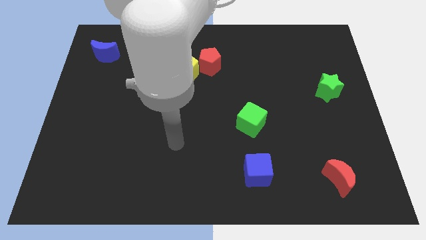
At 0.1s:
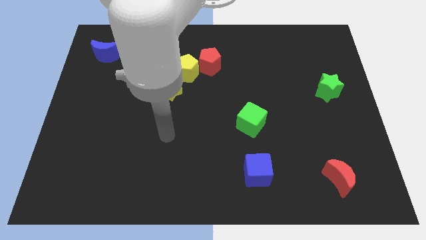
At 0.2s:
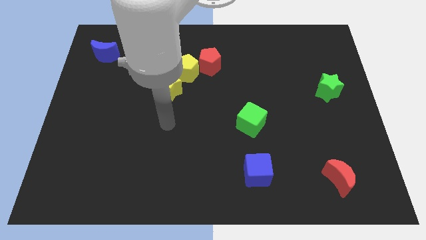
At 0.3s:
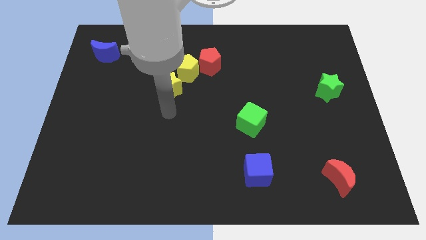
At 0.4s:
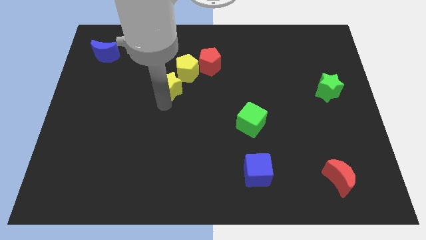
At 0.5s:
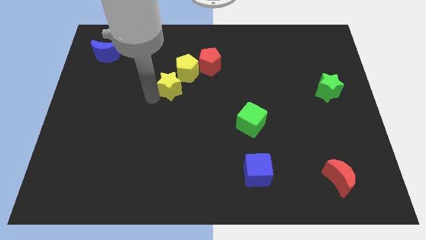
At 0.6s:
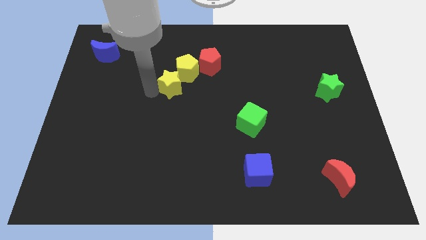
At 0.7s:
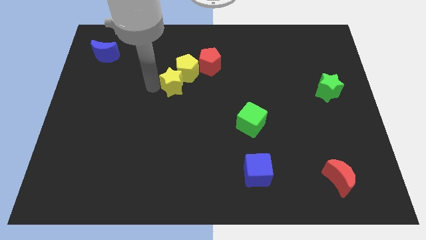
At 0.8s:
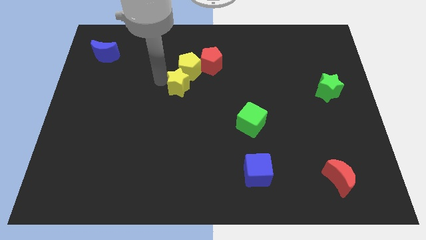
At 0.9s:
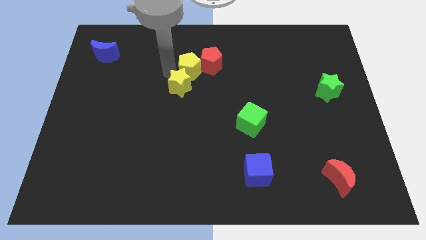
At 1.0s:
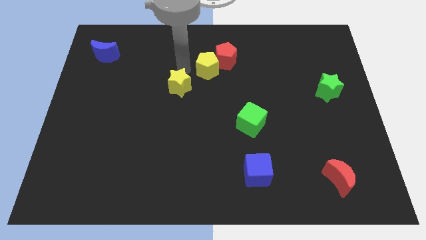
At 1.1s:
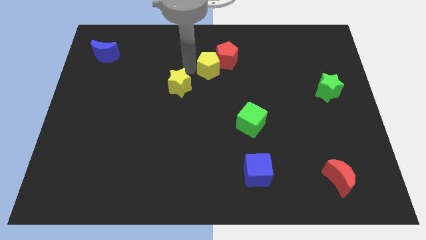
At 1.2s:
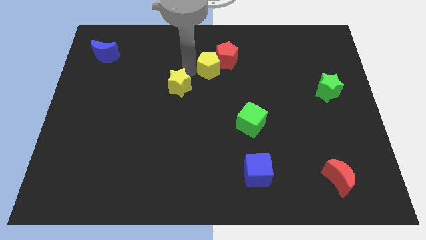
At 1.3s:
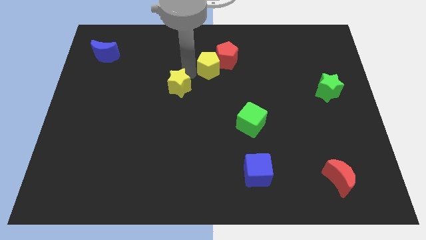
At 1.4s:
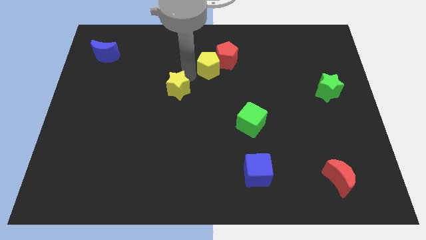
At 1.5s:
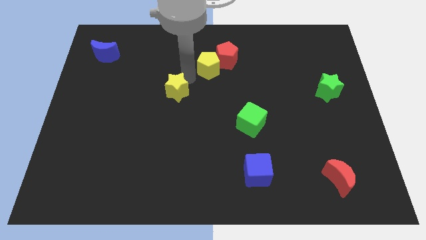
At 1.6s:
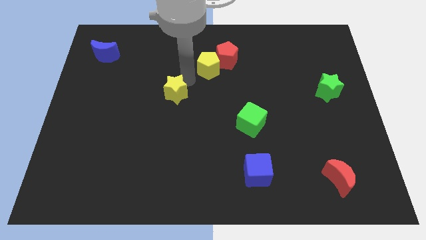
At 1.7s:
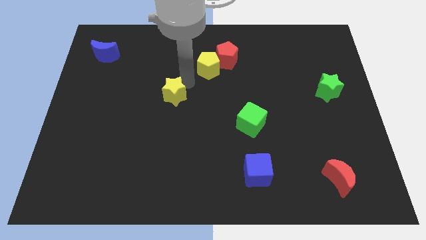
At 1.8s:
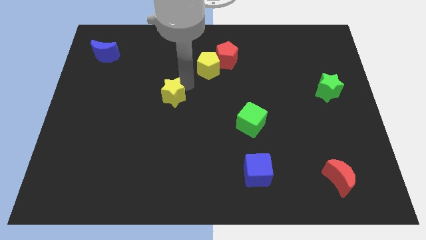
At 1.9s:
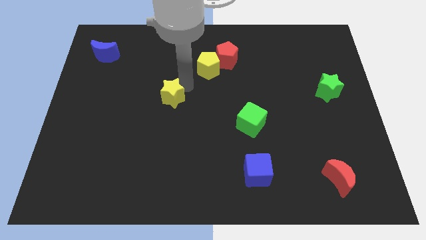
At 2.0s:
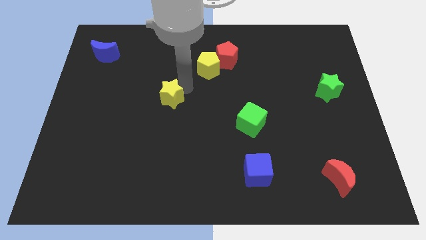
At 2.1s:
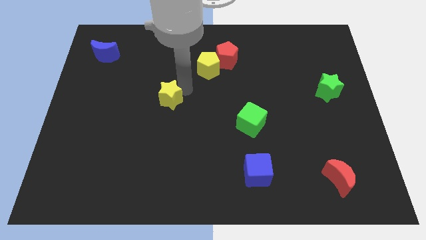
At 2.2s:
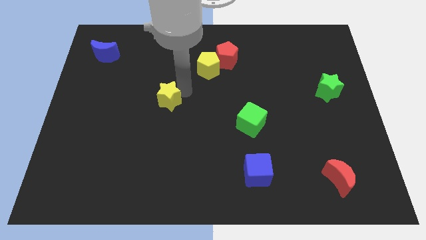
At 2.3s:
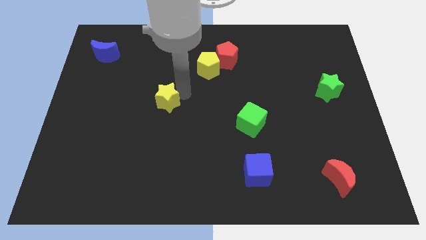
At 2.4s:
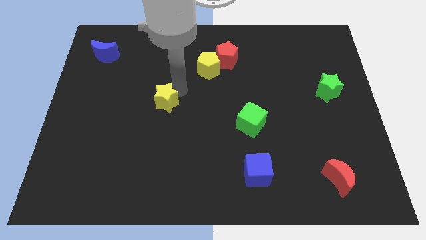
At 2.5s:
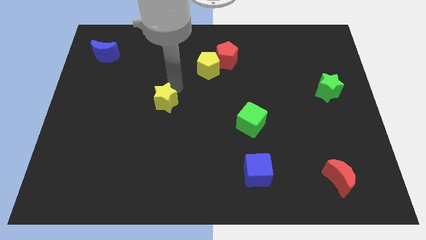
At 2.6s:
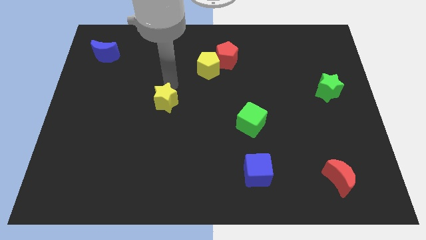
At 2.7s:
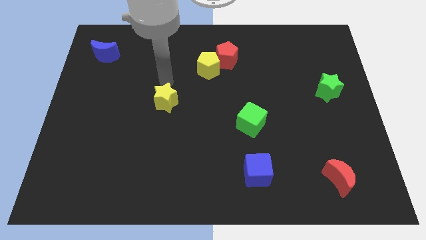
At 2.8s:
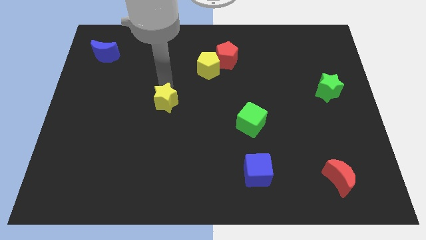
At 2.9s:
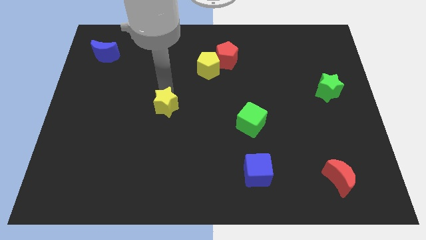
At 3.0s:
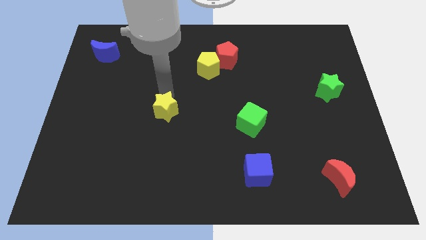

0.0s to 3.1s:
slightly slide the yellow star down

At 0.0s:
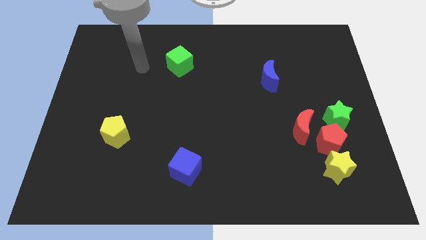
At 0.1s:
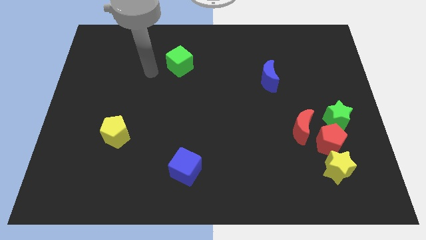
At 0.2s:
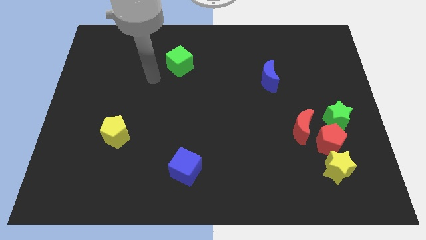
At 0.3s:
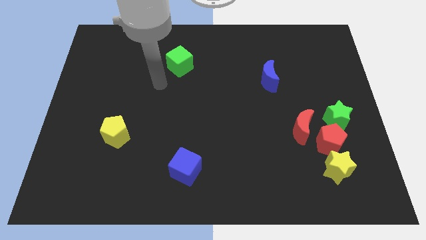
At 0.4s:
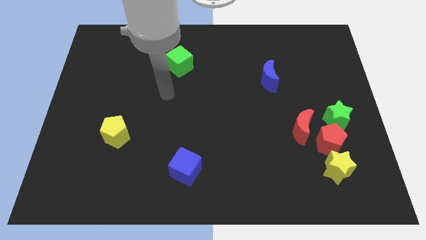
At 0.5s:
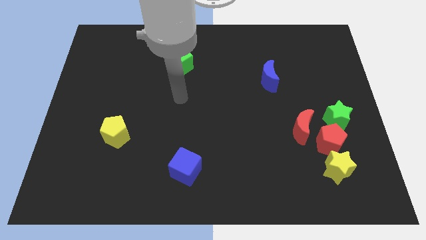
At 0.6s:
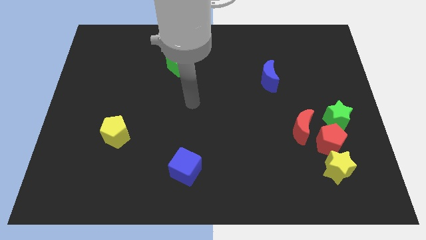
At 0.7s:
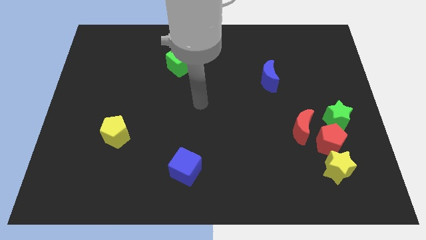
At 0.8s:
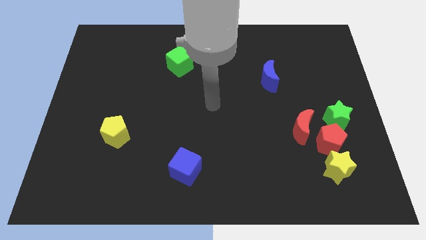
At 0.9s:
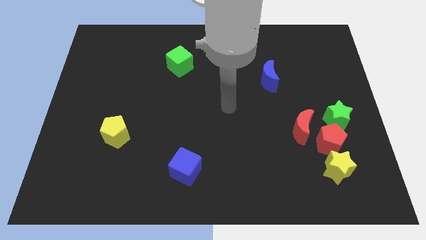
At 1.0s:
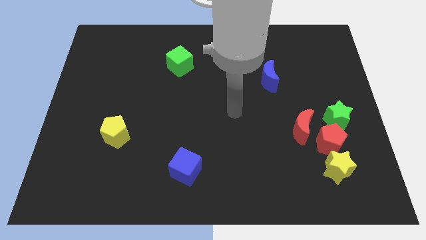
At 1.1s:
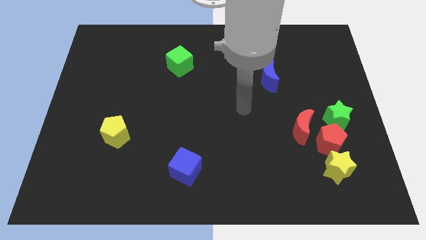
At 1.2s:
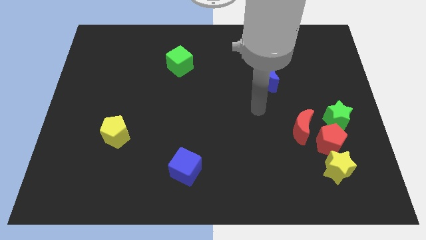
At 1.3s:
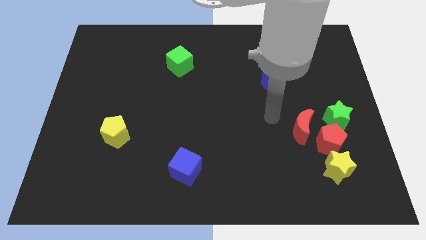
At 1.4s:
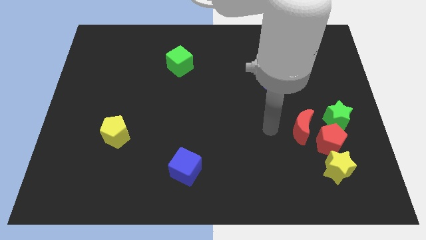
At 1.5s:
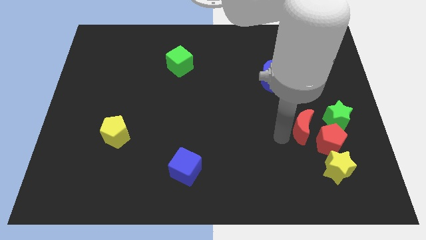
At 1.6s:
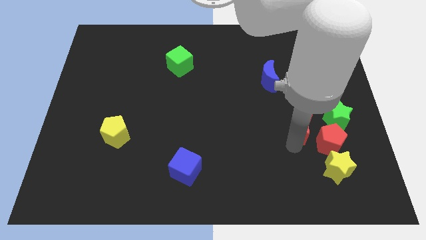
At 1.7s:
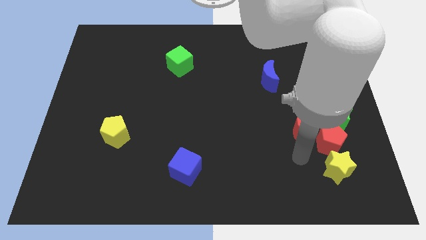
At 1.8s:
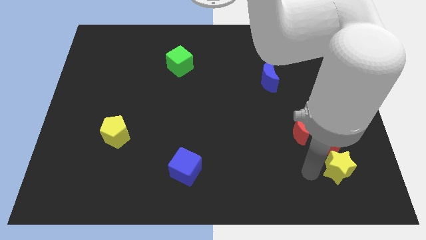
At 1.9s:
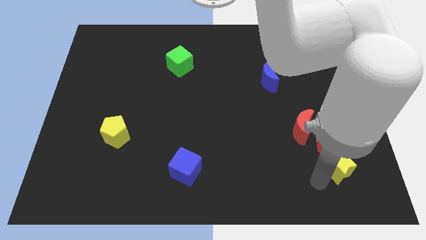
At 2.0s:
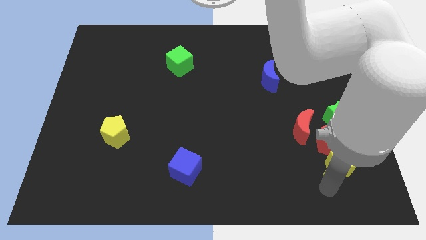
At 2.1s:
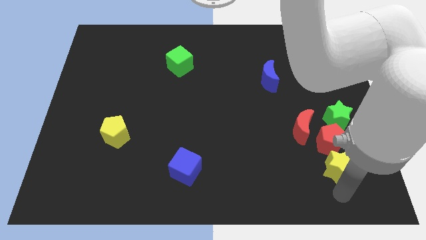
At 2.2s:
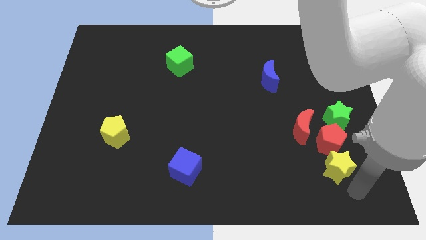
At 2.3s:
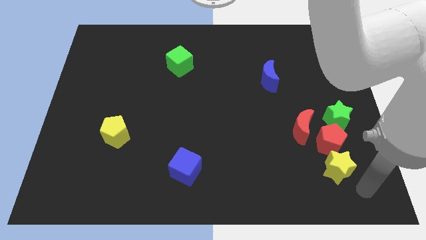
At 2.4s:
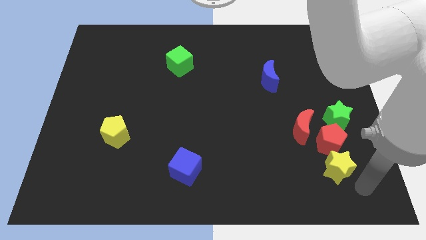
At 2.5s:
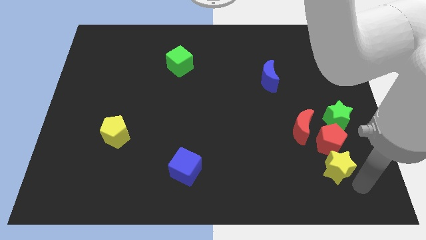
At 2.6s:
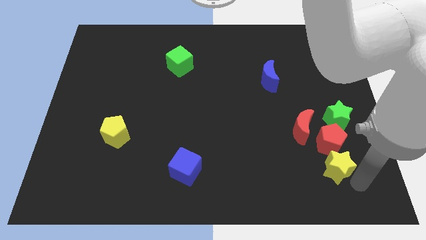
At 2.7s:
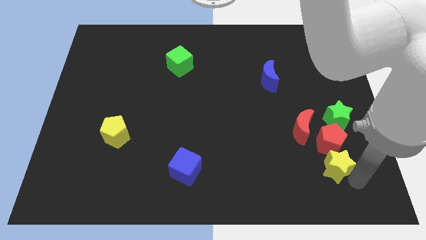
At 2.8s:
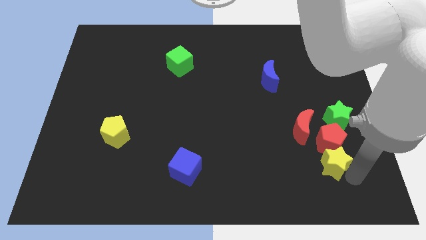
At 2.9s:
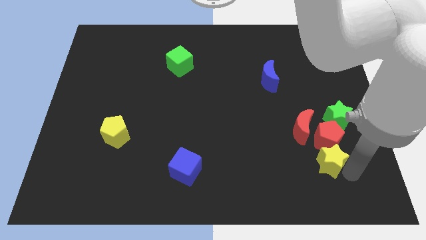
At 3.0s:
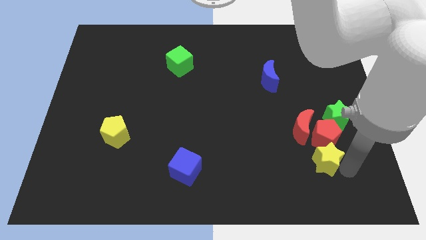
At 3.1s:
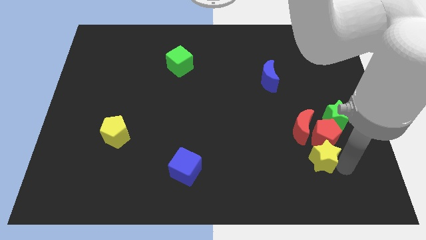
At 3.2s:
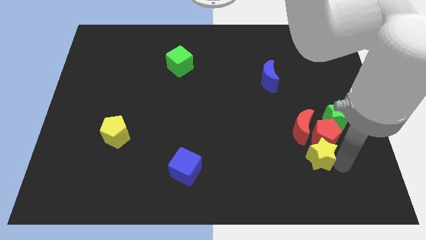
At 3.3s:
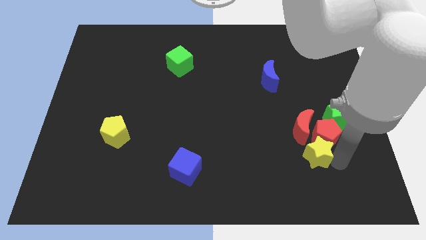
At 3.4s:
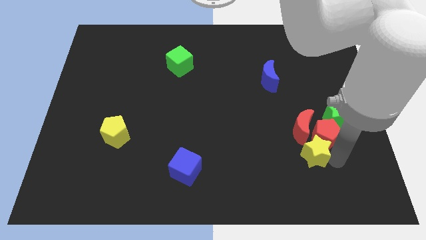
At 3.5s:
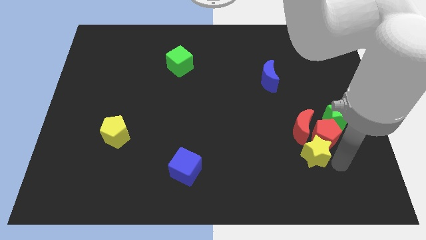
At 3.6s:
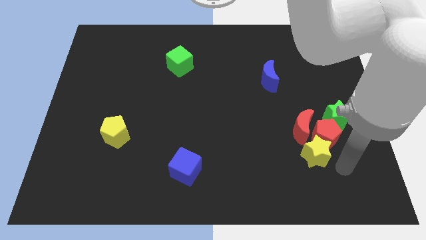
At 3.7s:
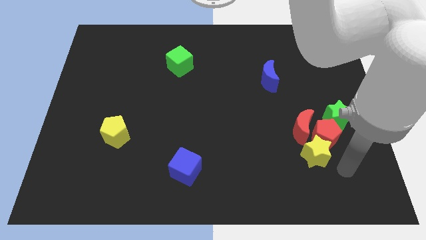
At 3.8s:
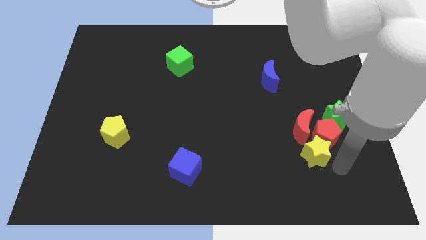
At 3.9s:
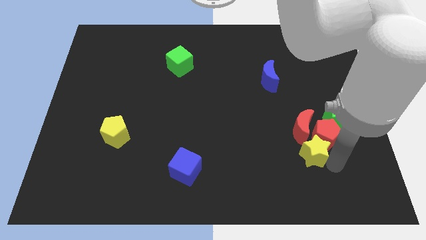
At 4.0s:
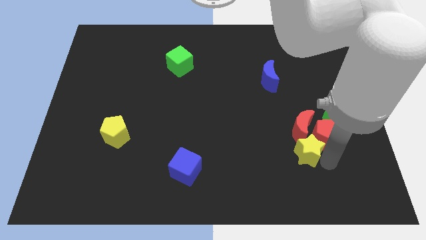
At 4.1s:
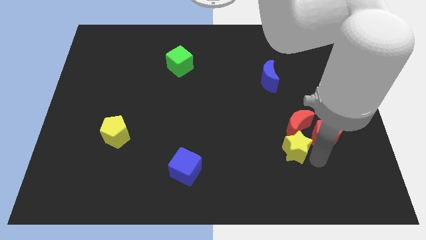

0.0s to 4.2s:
push the yellow star up and then to the left a bit

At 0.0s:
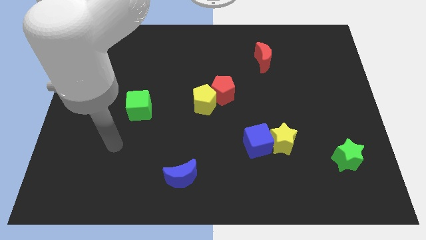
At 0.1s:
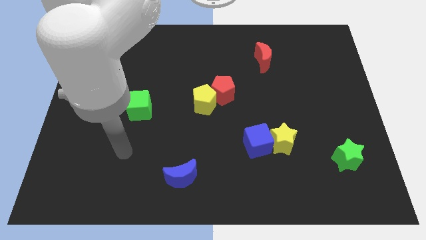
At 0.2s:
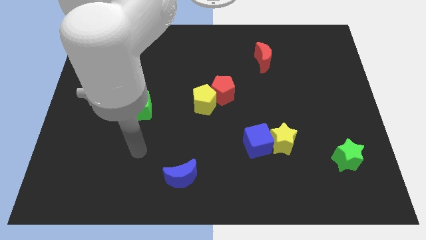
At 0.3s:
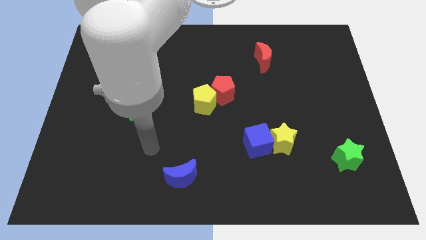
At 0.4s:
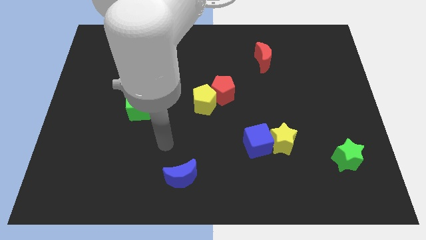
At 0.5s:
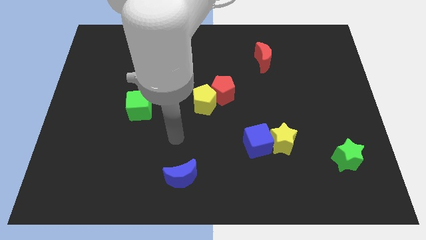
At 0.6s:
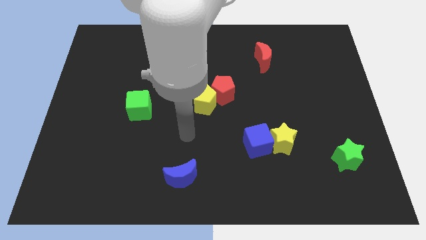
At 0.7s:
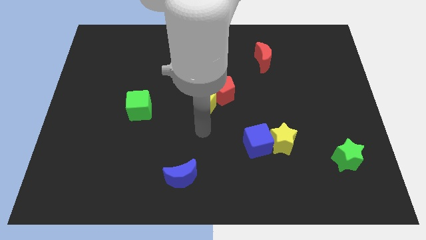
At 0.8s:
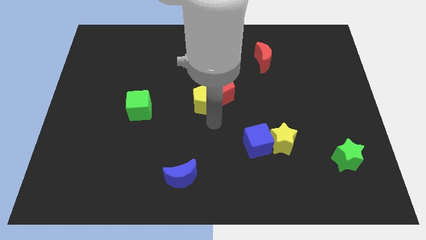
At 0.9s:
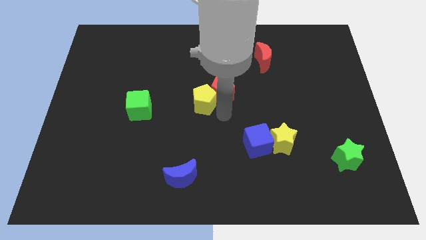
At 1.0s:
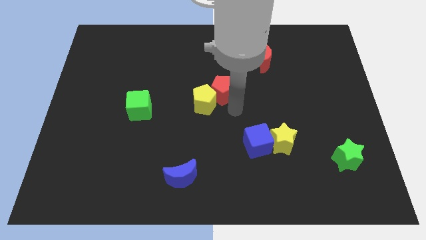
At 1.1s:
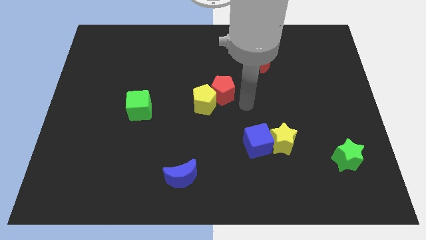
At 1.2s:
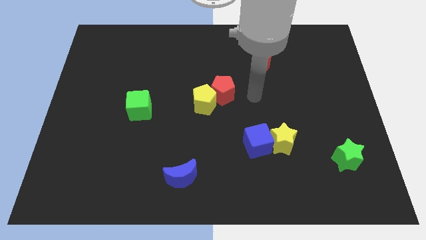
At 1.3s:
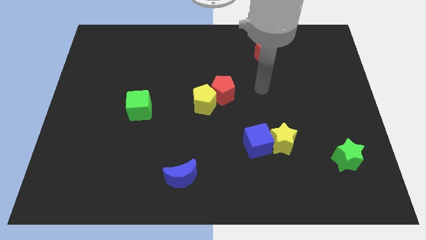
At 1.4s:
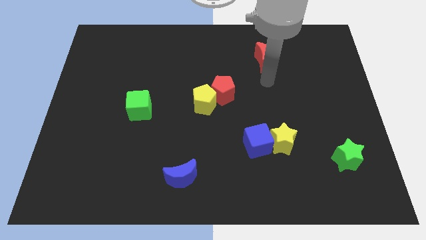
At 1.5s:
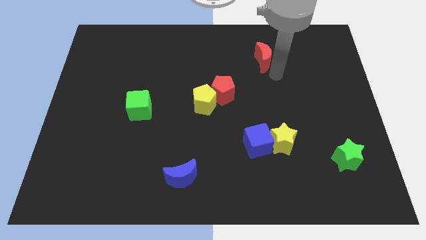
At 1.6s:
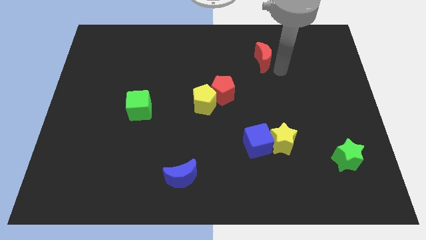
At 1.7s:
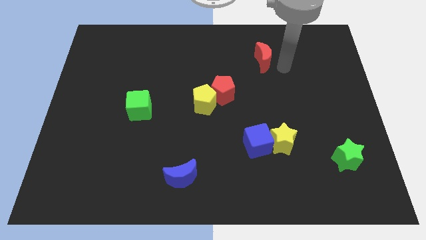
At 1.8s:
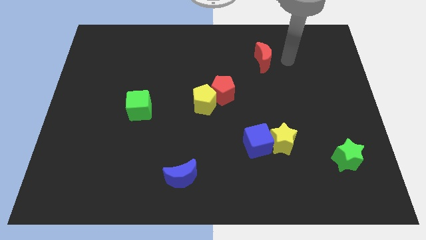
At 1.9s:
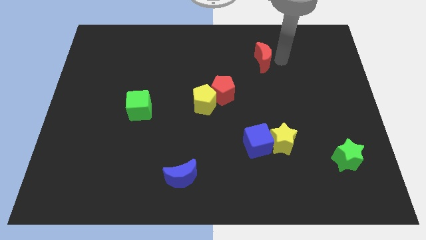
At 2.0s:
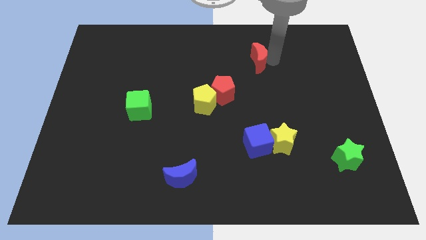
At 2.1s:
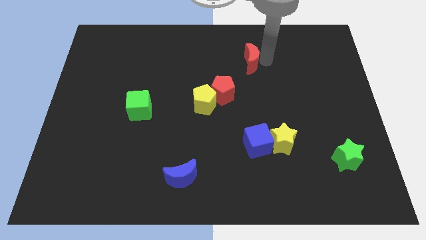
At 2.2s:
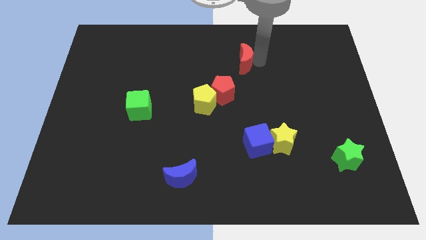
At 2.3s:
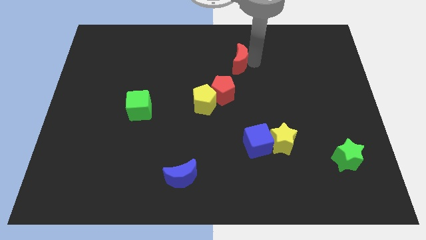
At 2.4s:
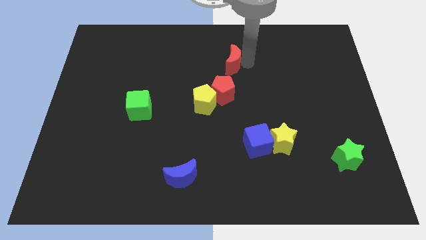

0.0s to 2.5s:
push the red moon to the left a bit
